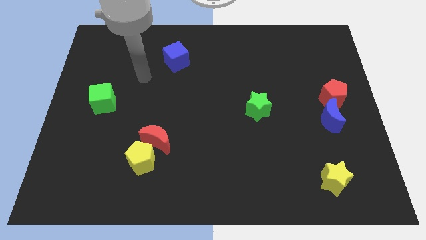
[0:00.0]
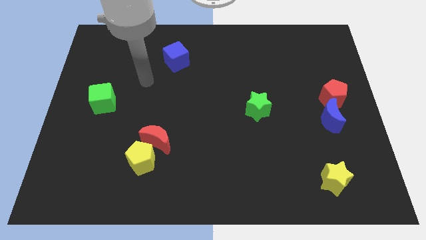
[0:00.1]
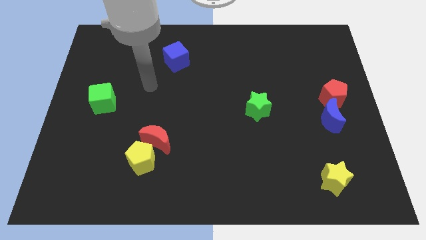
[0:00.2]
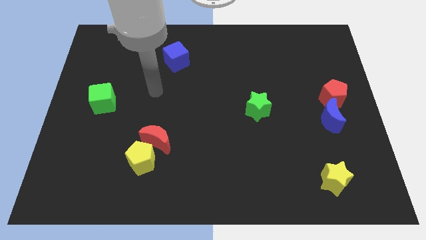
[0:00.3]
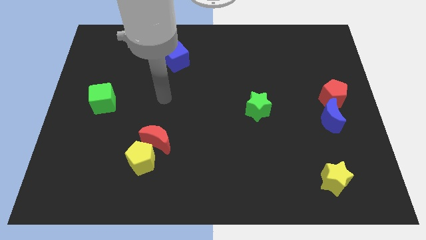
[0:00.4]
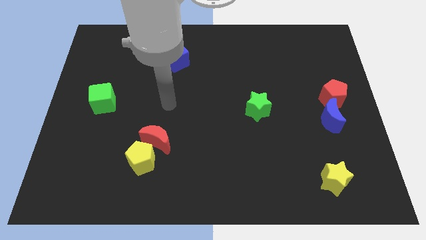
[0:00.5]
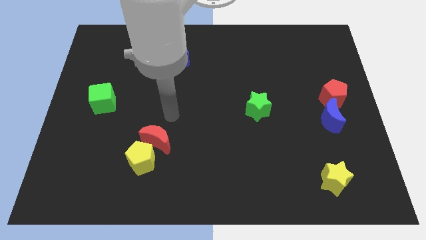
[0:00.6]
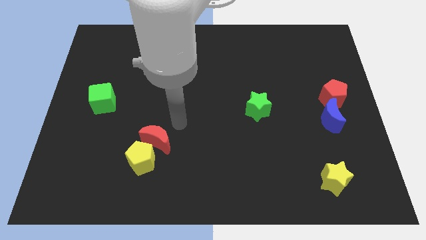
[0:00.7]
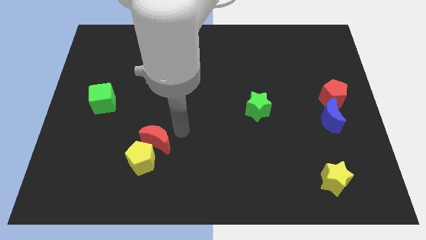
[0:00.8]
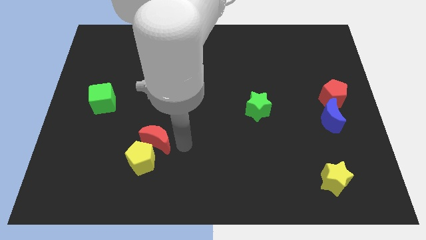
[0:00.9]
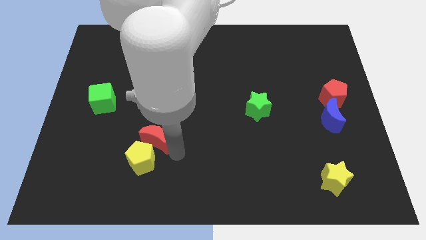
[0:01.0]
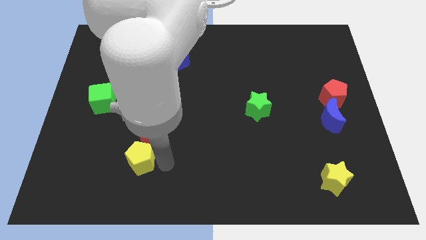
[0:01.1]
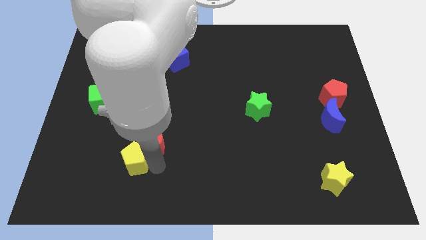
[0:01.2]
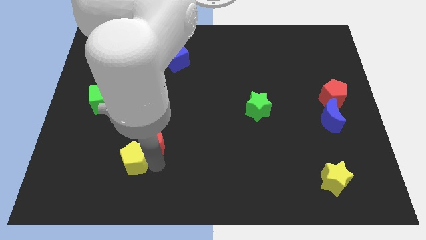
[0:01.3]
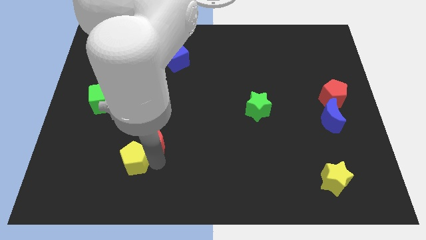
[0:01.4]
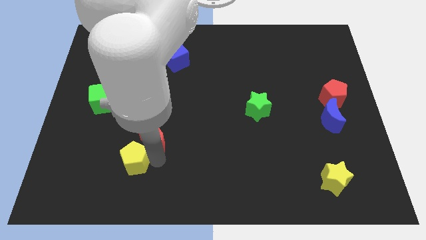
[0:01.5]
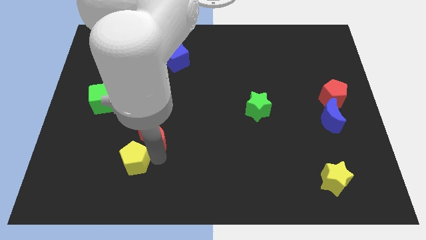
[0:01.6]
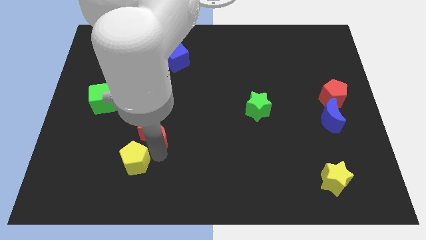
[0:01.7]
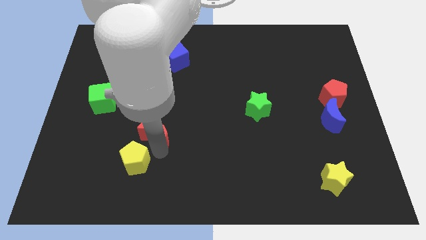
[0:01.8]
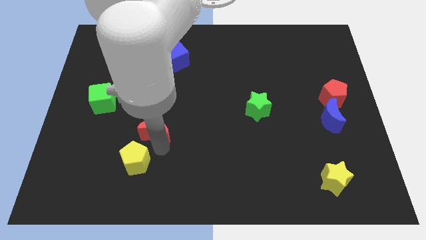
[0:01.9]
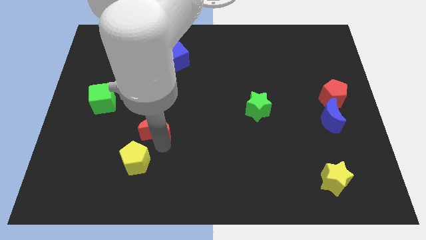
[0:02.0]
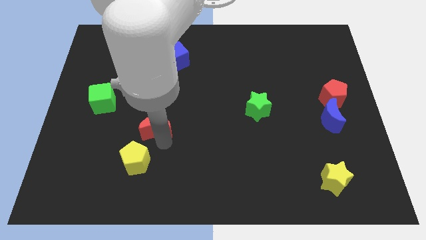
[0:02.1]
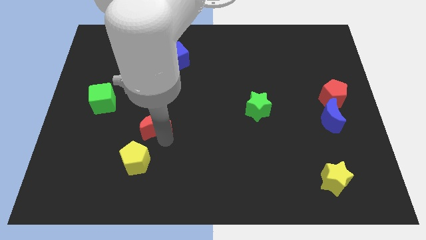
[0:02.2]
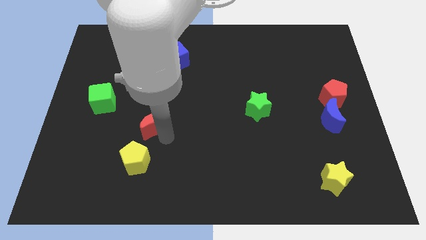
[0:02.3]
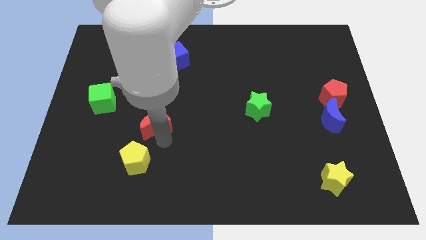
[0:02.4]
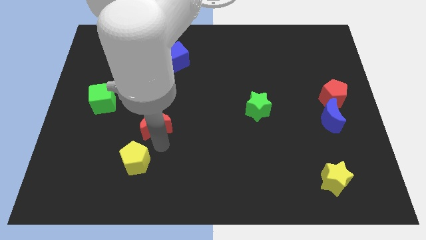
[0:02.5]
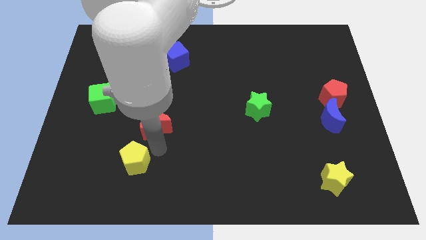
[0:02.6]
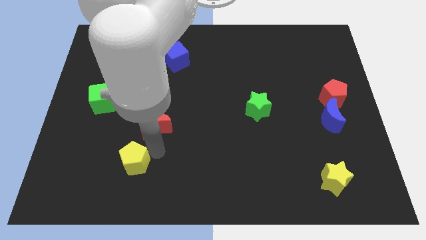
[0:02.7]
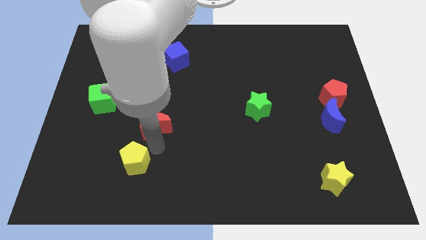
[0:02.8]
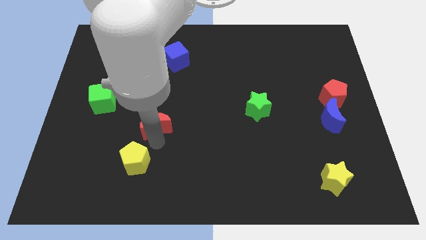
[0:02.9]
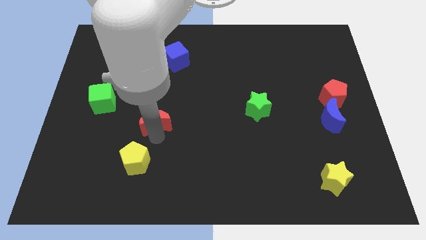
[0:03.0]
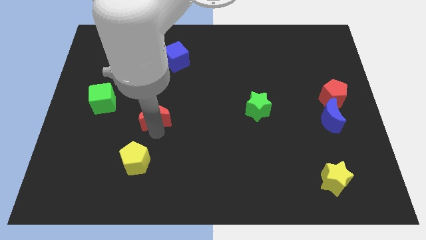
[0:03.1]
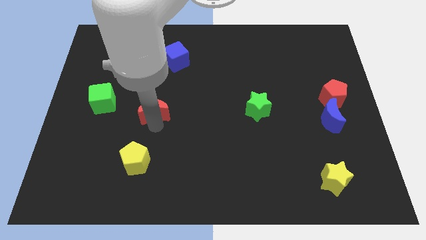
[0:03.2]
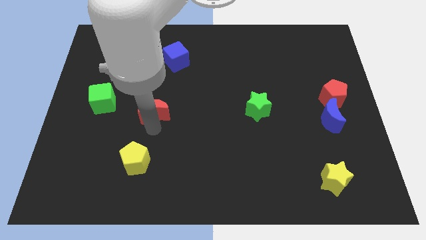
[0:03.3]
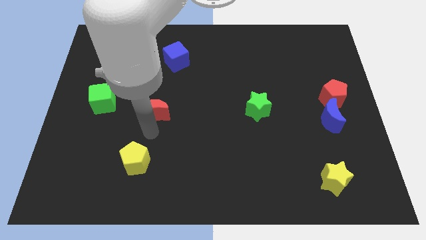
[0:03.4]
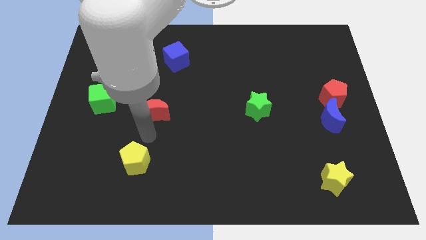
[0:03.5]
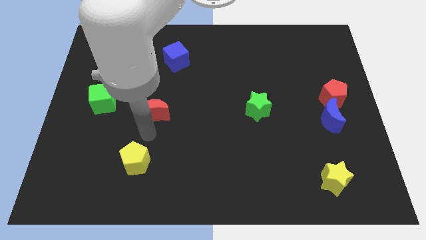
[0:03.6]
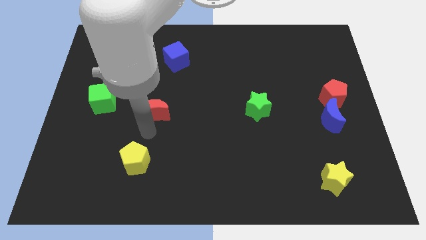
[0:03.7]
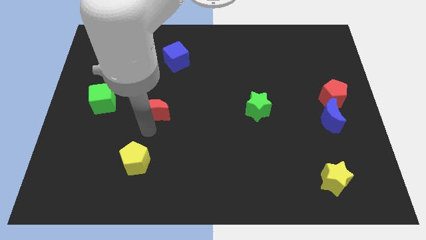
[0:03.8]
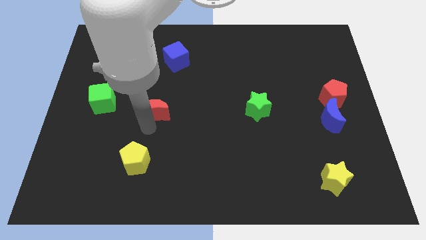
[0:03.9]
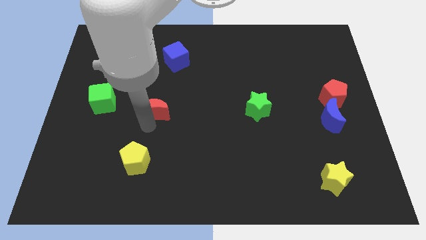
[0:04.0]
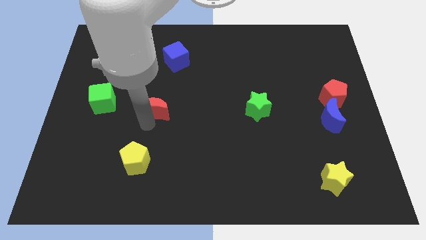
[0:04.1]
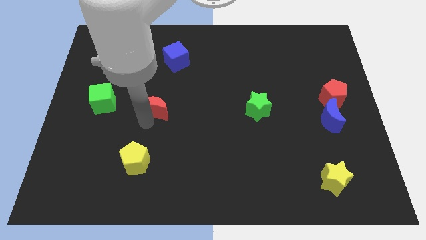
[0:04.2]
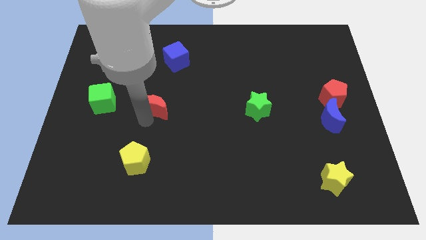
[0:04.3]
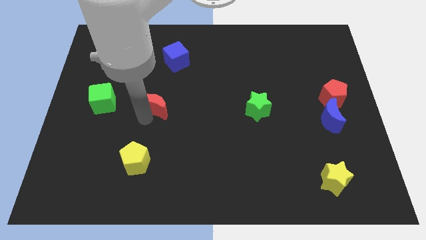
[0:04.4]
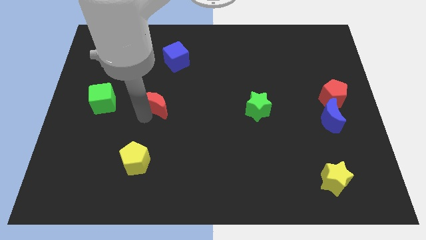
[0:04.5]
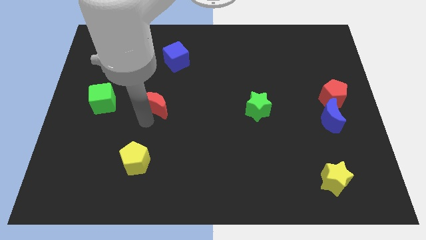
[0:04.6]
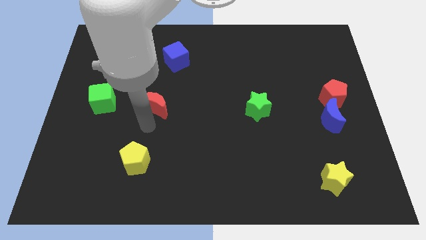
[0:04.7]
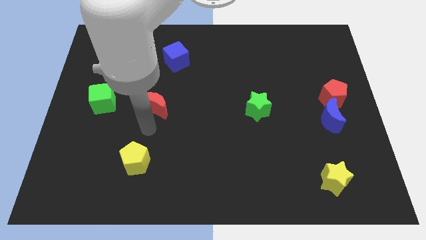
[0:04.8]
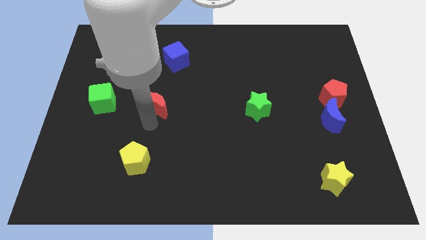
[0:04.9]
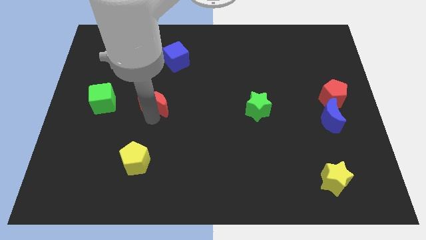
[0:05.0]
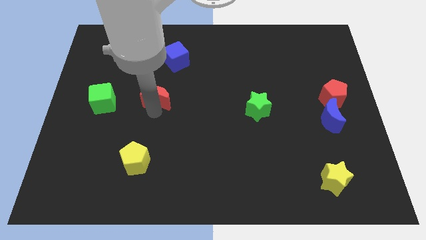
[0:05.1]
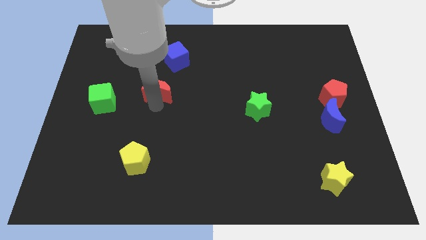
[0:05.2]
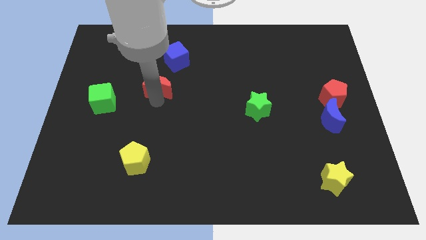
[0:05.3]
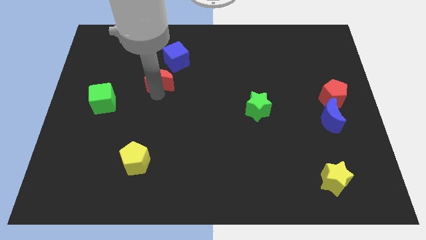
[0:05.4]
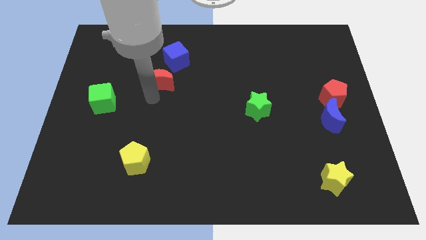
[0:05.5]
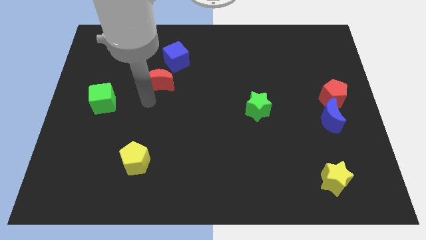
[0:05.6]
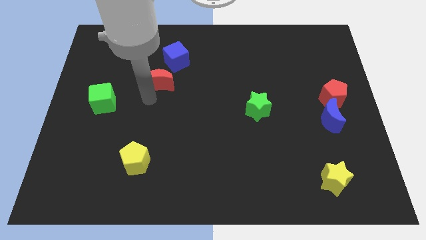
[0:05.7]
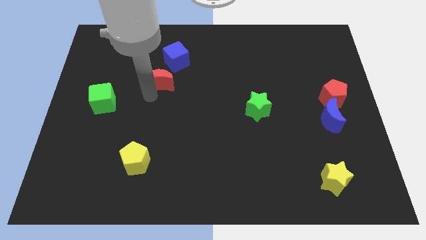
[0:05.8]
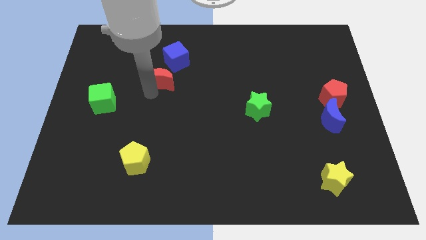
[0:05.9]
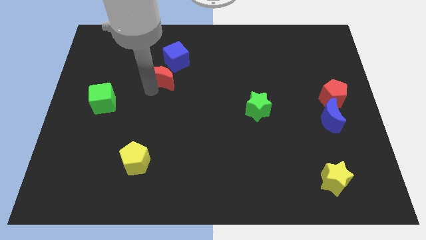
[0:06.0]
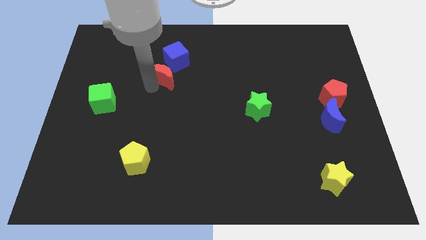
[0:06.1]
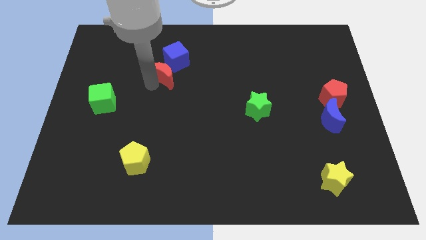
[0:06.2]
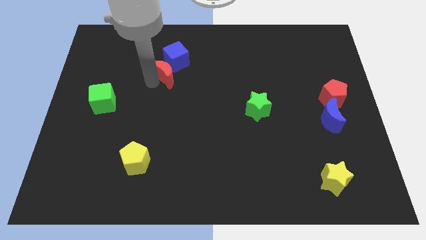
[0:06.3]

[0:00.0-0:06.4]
move the red moon next to the blue cube

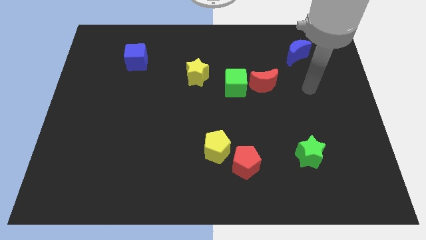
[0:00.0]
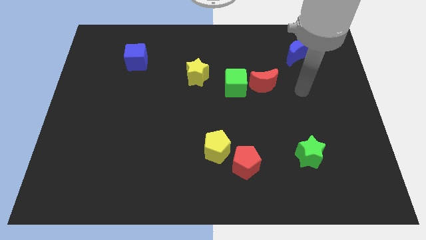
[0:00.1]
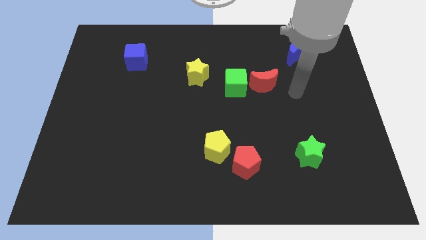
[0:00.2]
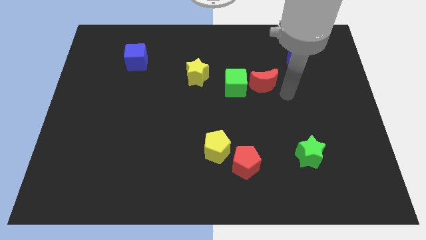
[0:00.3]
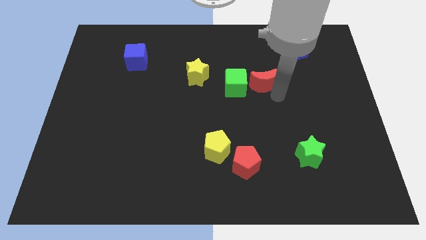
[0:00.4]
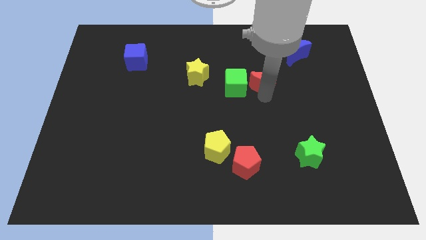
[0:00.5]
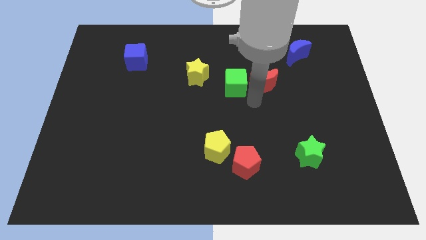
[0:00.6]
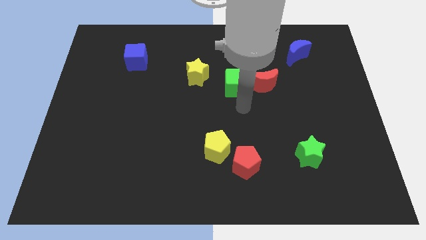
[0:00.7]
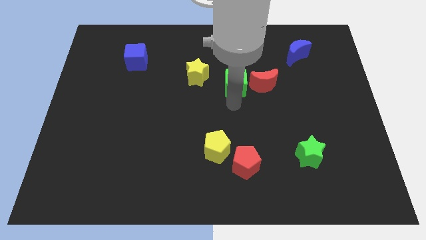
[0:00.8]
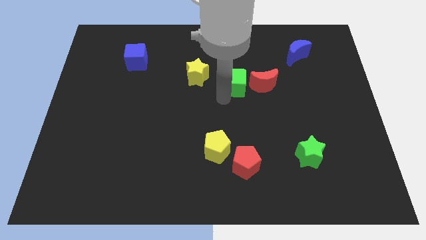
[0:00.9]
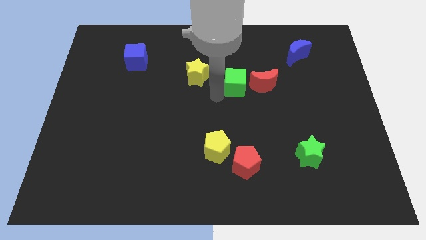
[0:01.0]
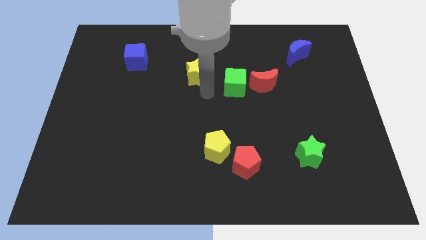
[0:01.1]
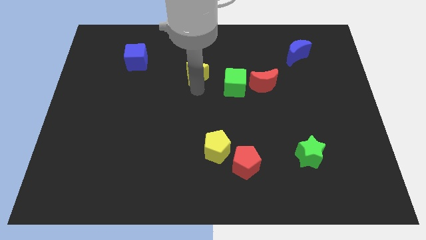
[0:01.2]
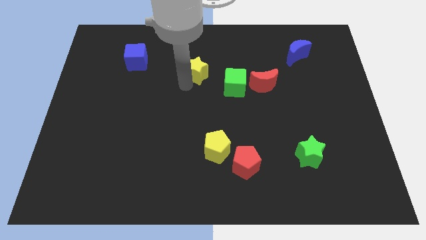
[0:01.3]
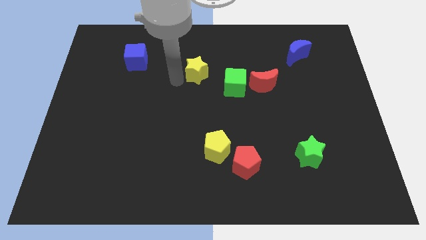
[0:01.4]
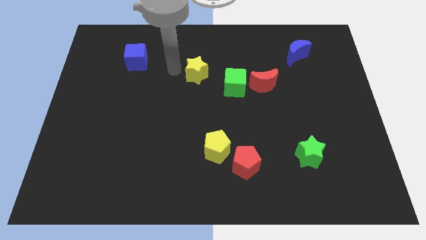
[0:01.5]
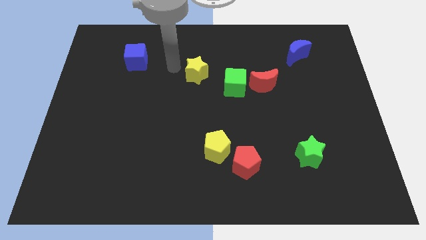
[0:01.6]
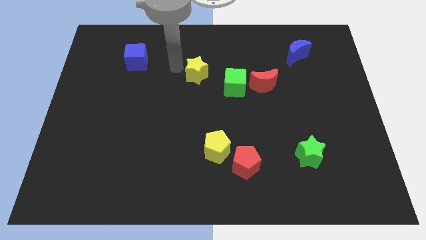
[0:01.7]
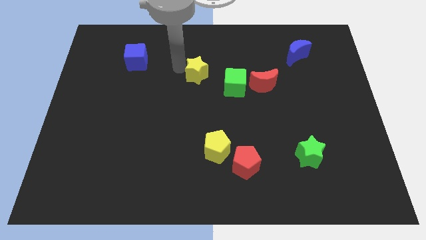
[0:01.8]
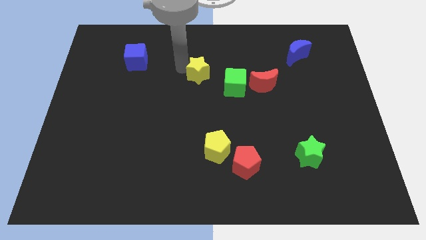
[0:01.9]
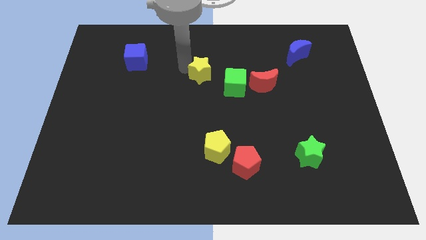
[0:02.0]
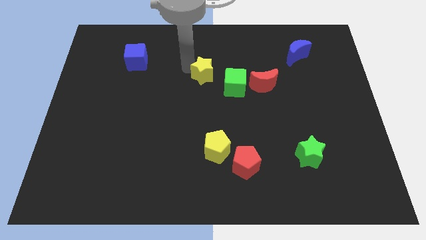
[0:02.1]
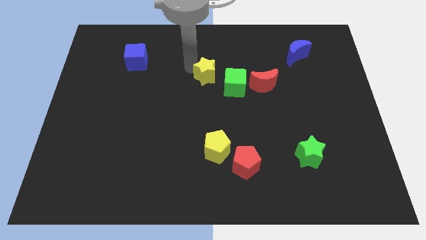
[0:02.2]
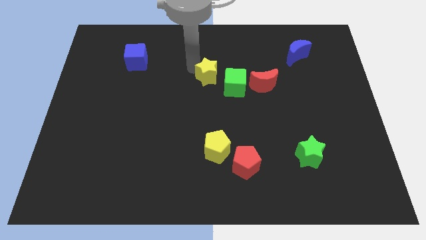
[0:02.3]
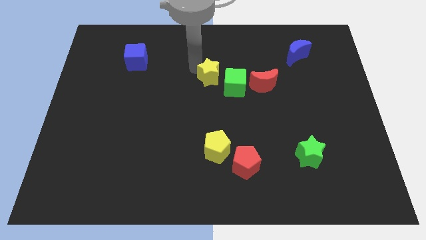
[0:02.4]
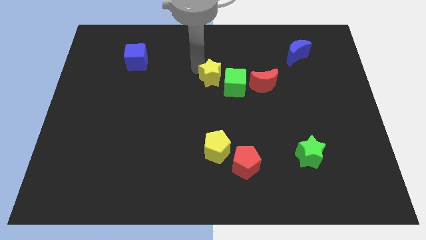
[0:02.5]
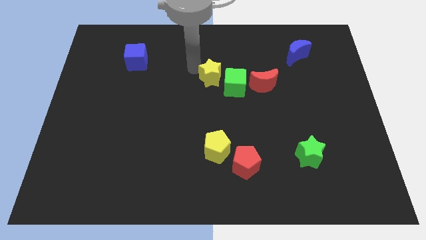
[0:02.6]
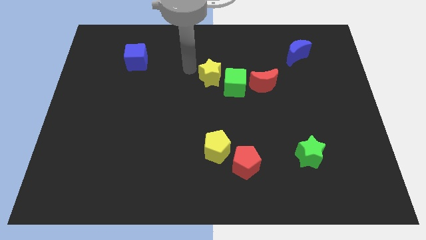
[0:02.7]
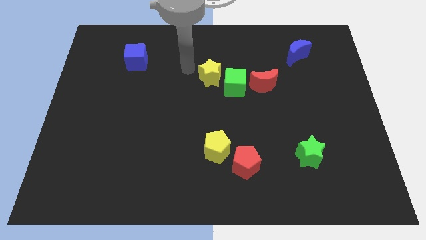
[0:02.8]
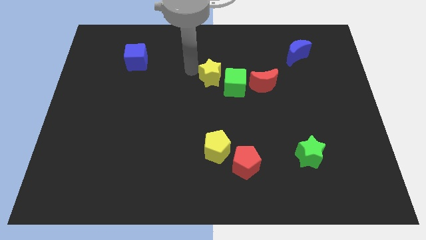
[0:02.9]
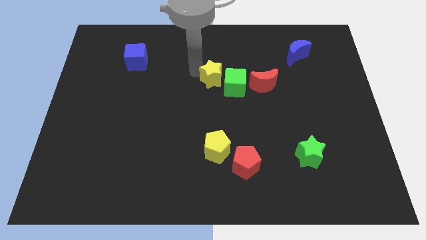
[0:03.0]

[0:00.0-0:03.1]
move the yellow star next to the green cube
